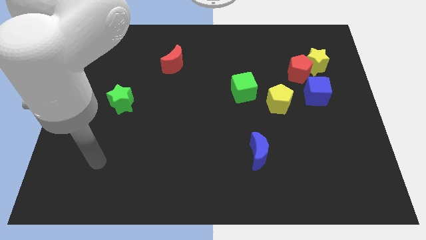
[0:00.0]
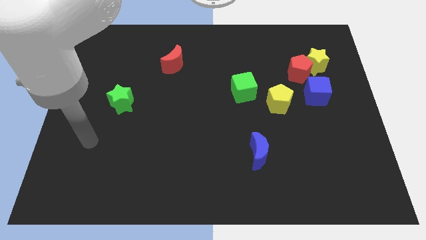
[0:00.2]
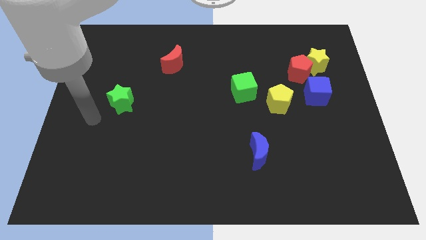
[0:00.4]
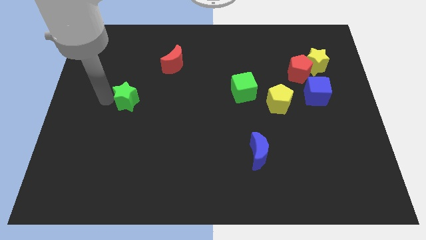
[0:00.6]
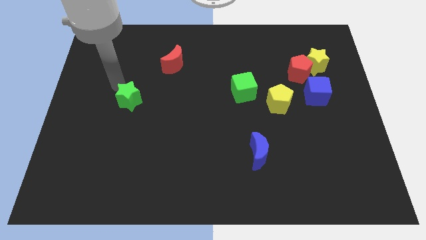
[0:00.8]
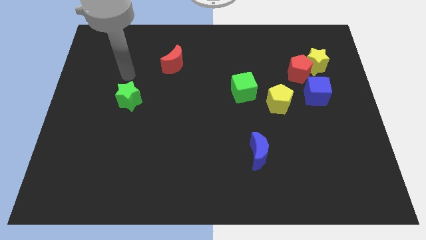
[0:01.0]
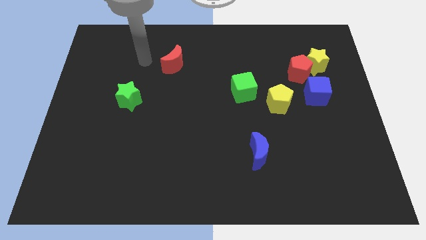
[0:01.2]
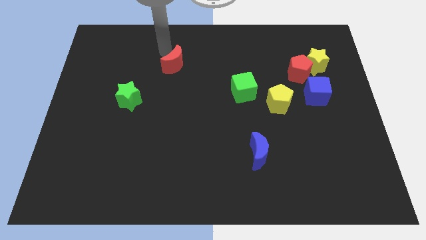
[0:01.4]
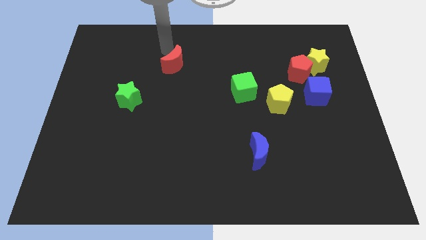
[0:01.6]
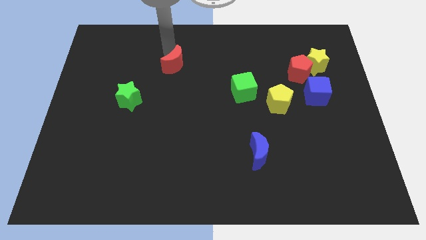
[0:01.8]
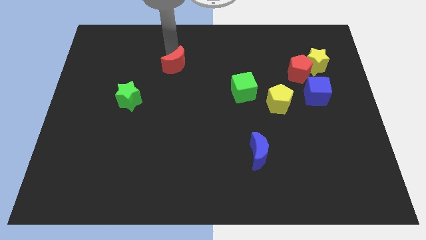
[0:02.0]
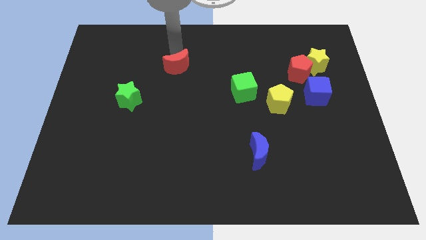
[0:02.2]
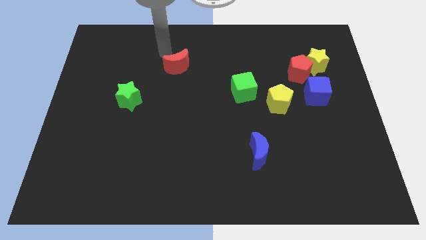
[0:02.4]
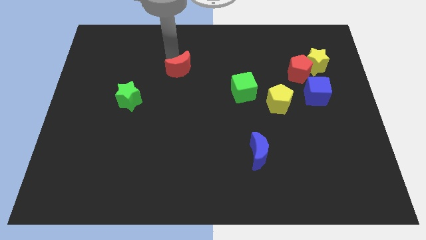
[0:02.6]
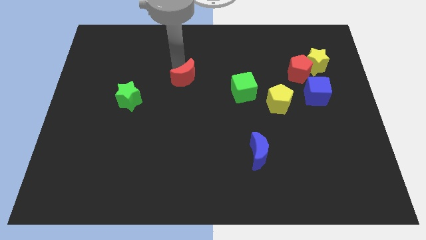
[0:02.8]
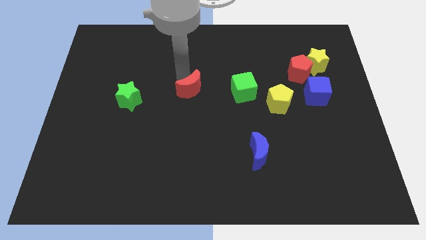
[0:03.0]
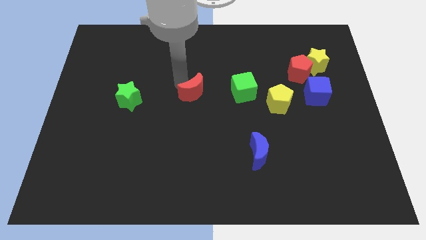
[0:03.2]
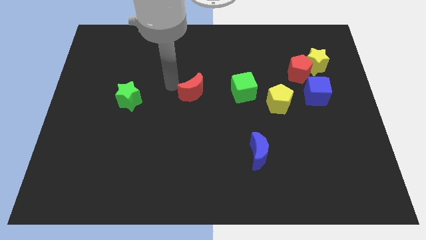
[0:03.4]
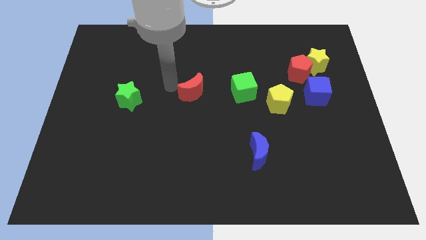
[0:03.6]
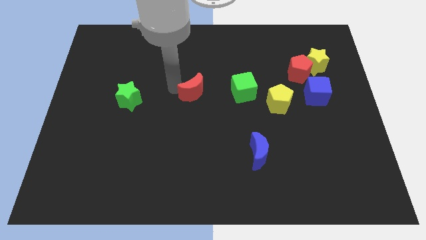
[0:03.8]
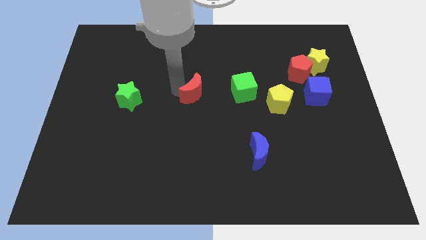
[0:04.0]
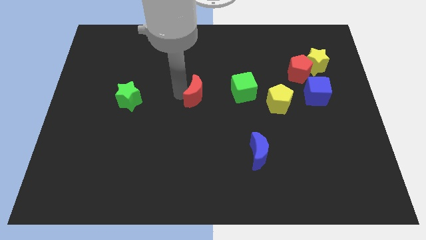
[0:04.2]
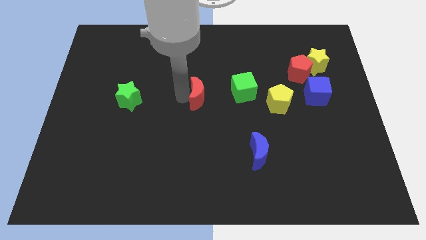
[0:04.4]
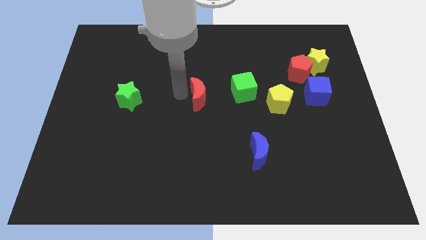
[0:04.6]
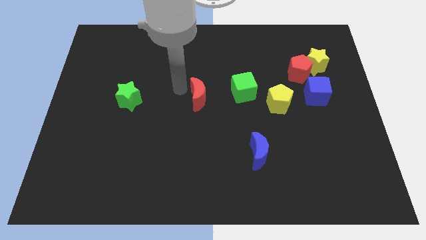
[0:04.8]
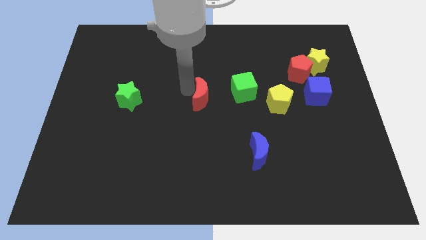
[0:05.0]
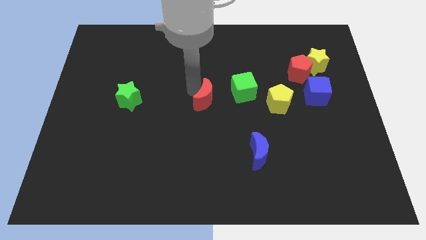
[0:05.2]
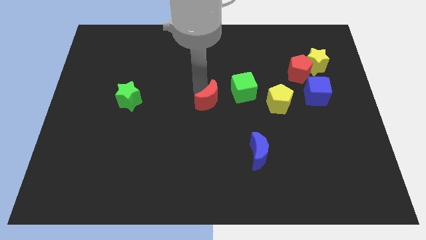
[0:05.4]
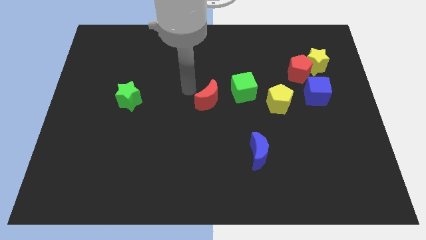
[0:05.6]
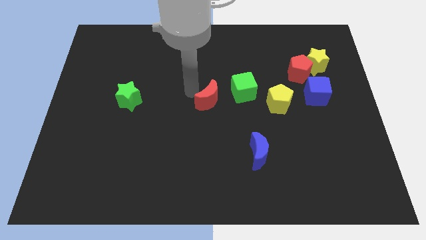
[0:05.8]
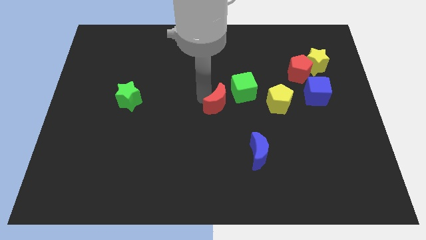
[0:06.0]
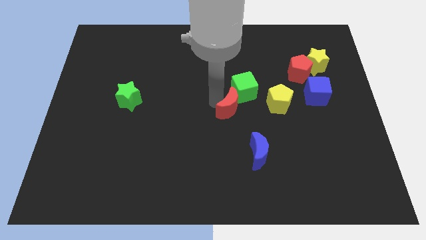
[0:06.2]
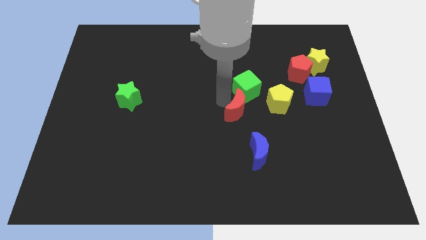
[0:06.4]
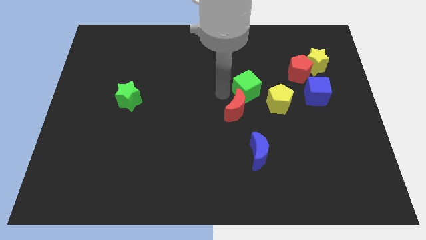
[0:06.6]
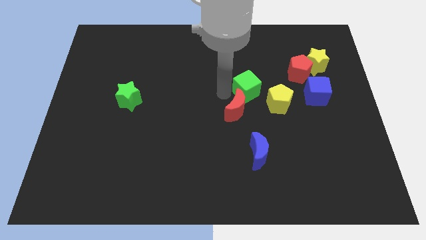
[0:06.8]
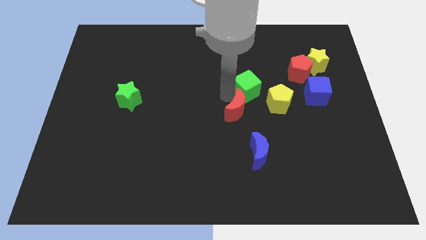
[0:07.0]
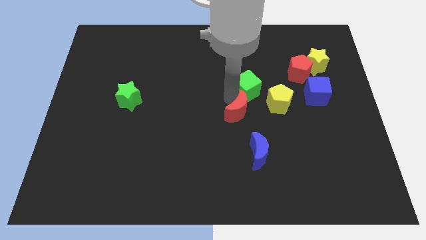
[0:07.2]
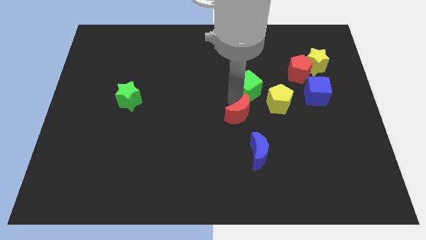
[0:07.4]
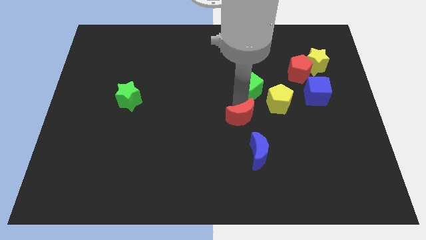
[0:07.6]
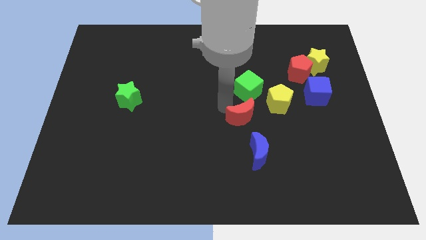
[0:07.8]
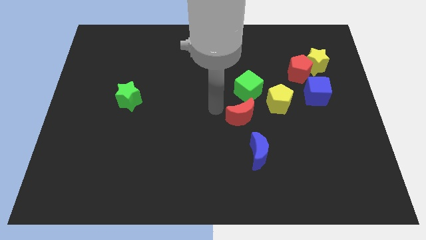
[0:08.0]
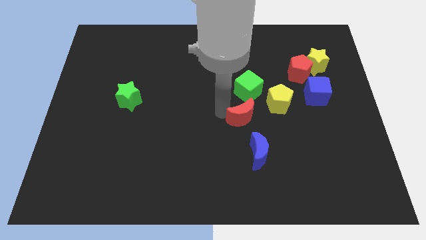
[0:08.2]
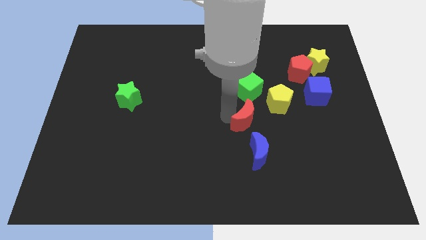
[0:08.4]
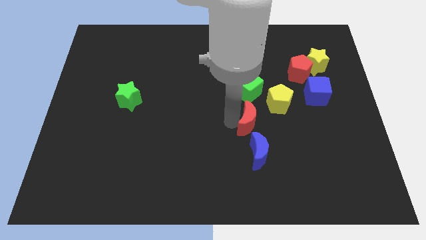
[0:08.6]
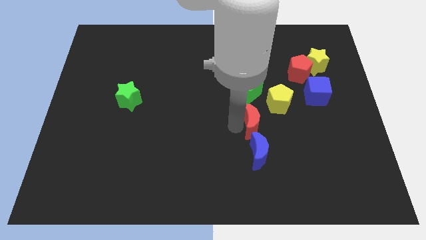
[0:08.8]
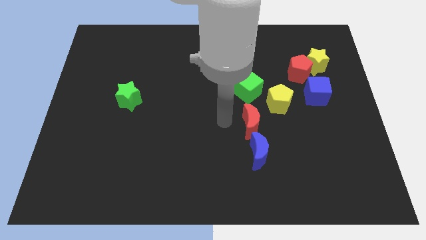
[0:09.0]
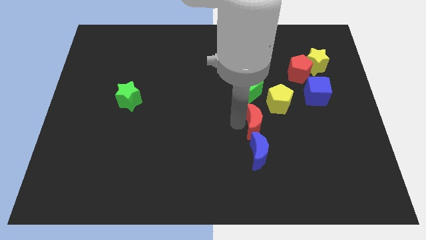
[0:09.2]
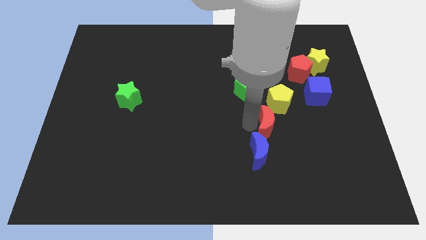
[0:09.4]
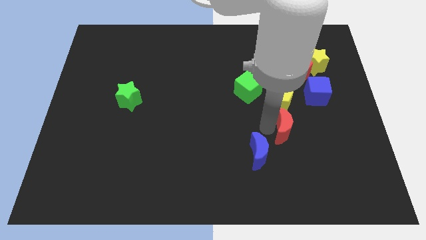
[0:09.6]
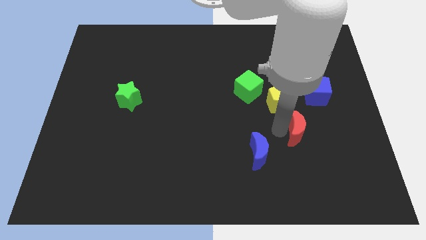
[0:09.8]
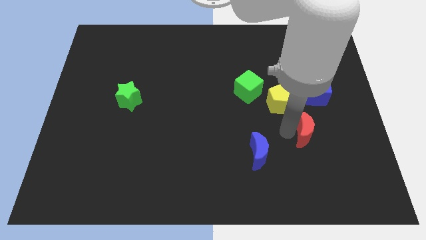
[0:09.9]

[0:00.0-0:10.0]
push the red moon to the bottom side of the blue cube

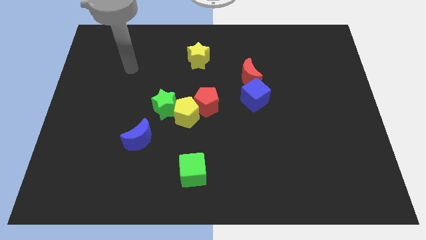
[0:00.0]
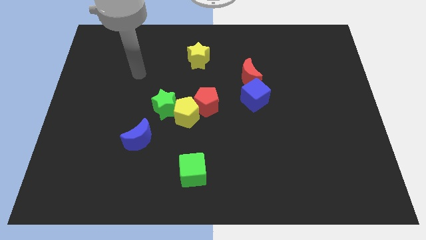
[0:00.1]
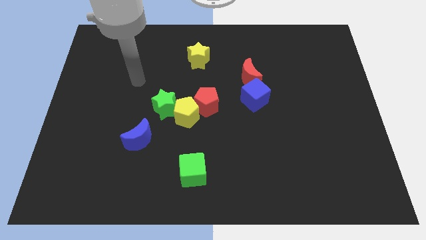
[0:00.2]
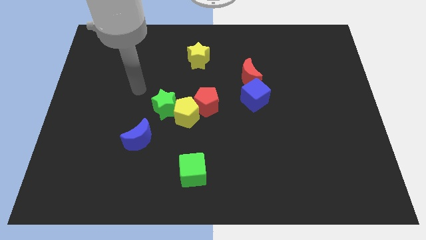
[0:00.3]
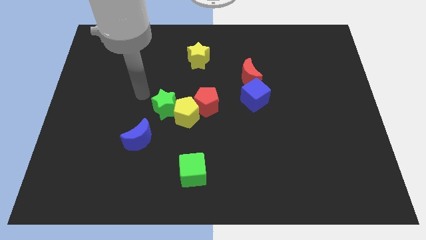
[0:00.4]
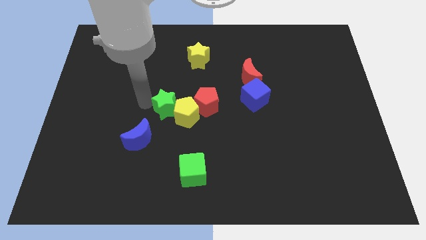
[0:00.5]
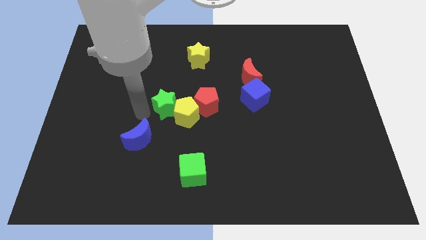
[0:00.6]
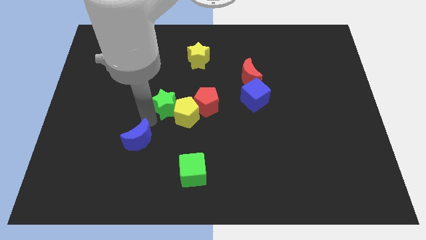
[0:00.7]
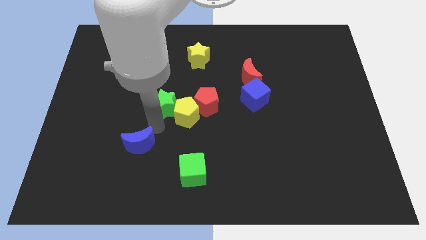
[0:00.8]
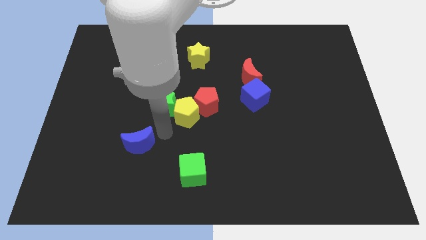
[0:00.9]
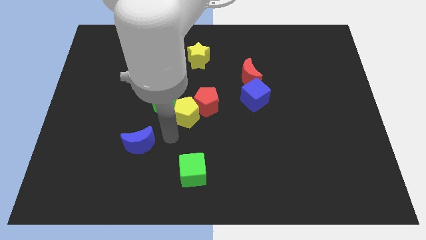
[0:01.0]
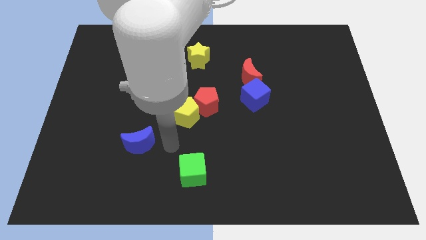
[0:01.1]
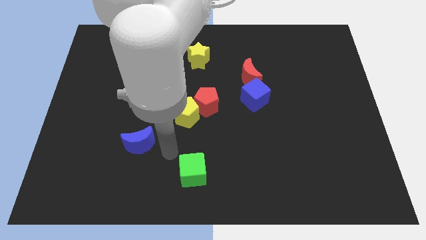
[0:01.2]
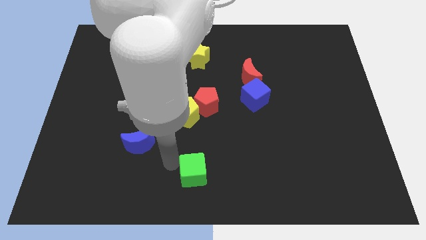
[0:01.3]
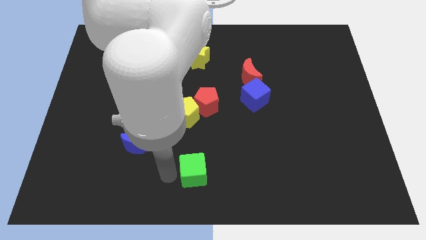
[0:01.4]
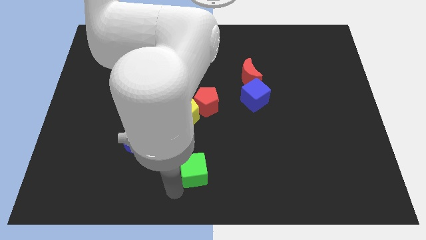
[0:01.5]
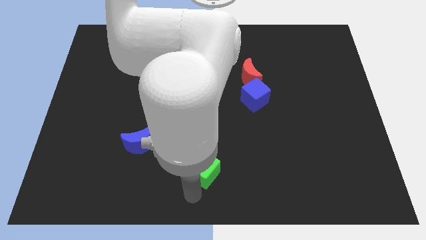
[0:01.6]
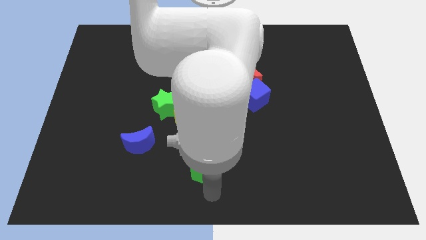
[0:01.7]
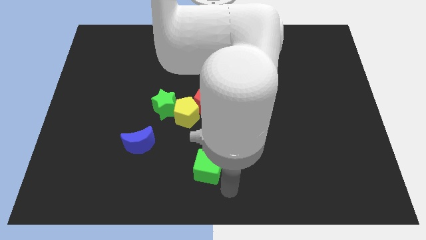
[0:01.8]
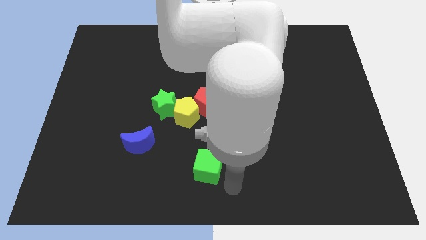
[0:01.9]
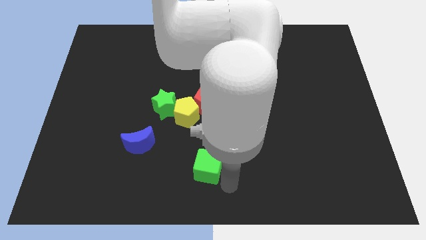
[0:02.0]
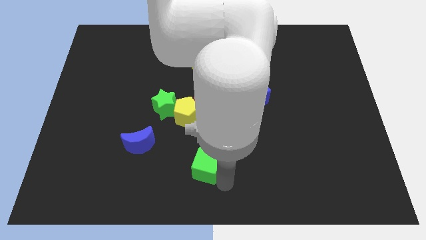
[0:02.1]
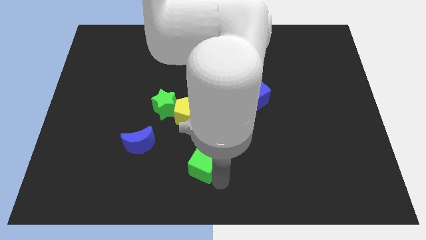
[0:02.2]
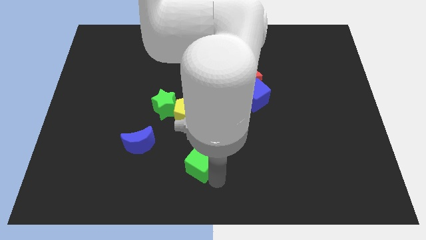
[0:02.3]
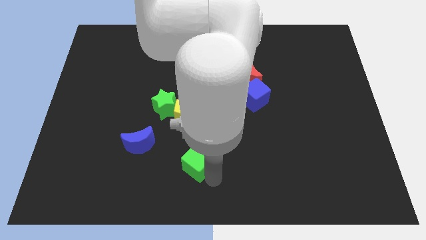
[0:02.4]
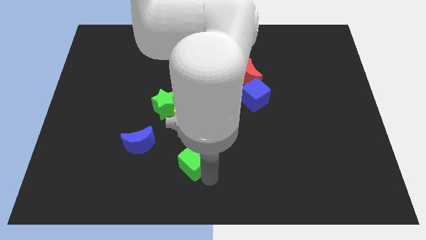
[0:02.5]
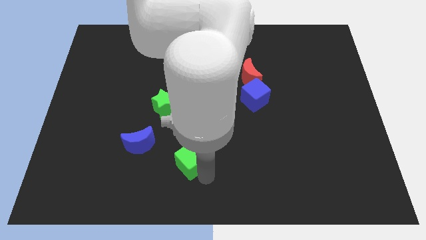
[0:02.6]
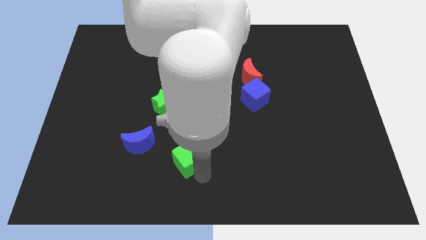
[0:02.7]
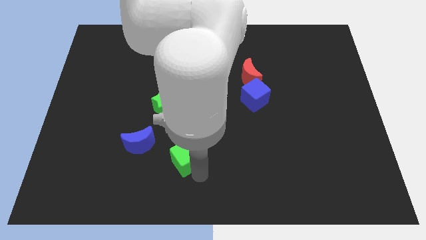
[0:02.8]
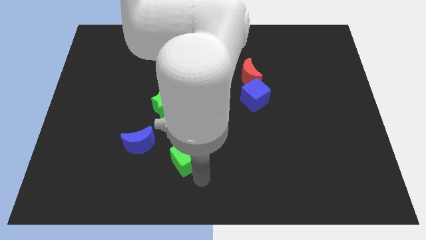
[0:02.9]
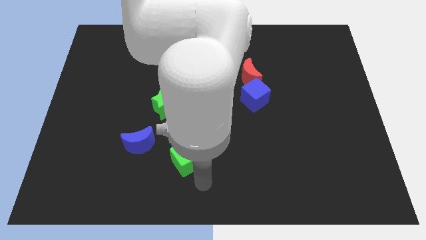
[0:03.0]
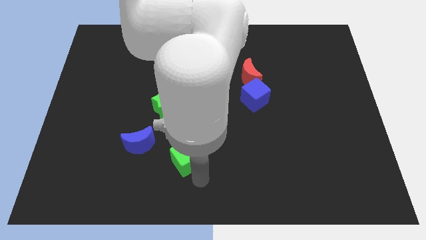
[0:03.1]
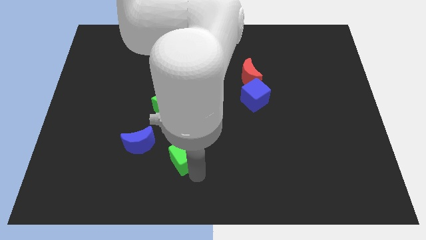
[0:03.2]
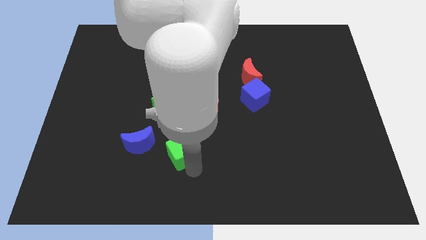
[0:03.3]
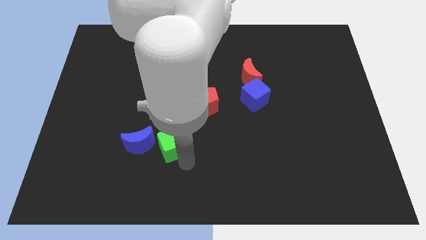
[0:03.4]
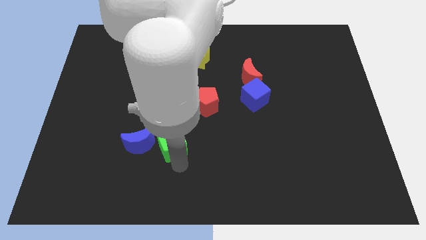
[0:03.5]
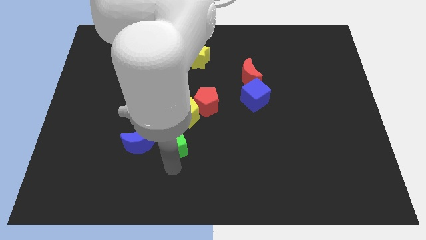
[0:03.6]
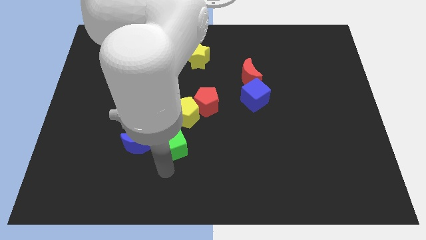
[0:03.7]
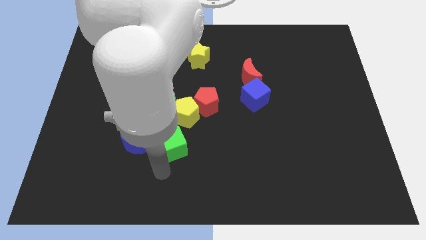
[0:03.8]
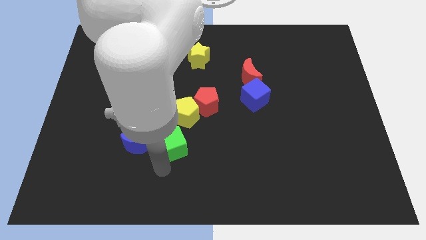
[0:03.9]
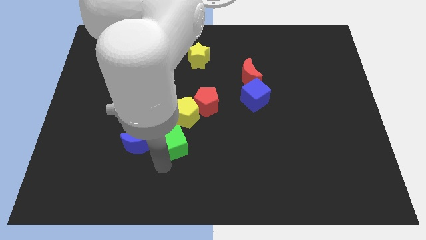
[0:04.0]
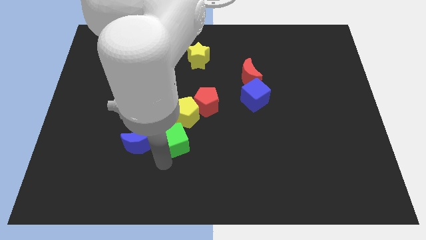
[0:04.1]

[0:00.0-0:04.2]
slide the green cube to the bottom left of the red pentagon
